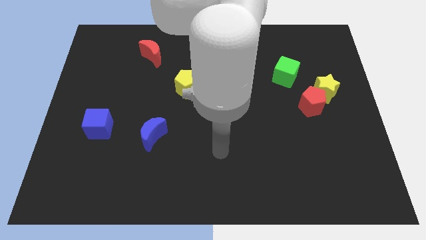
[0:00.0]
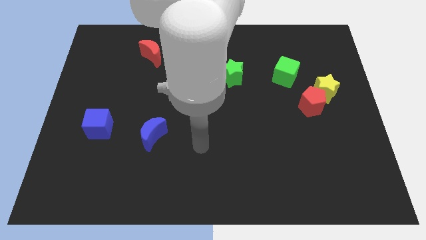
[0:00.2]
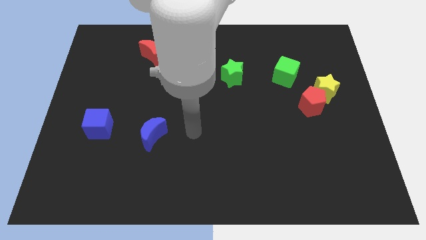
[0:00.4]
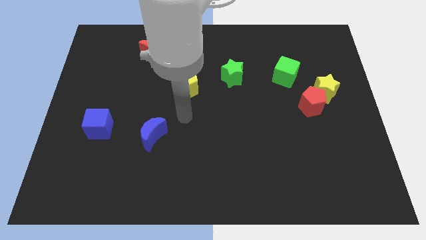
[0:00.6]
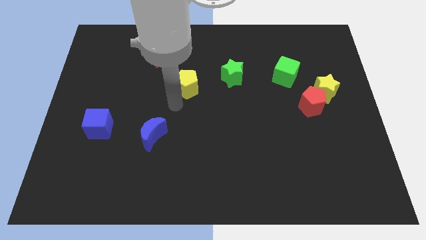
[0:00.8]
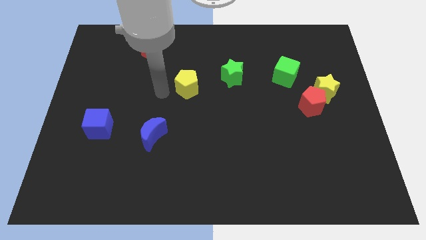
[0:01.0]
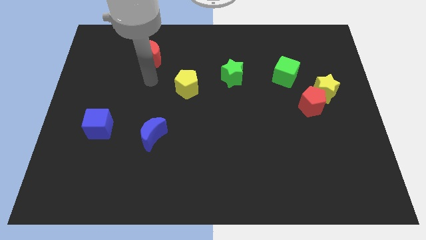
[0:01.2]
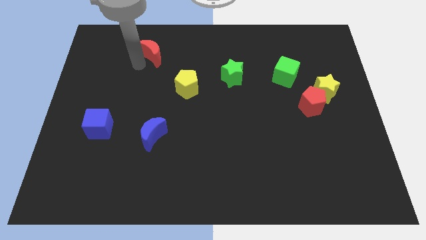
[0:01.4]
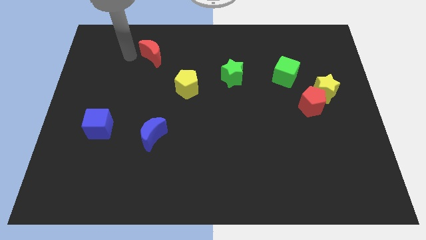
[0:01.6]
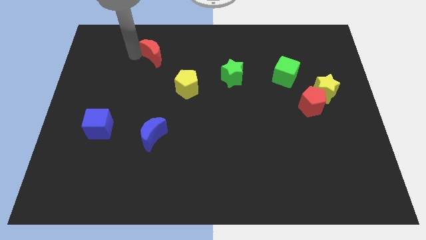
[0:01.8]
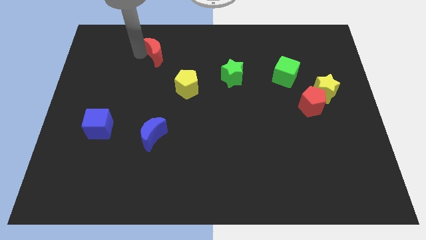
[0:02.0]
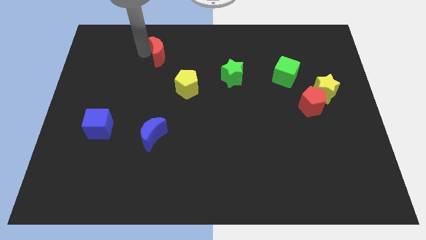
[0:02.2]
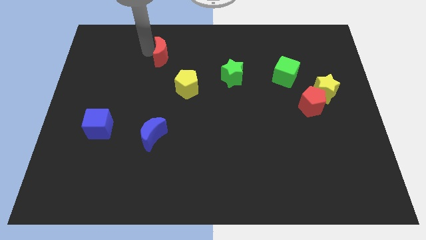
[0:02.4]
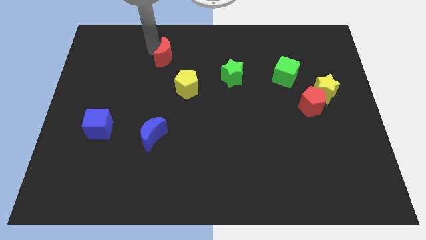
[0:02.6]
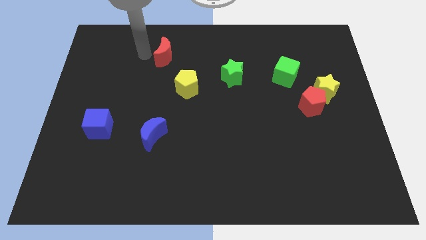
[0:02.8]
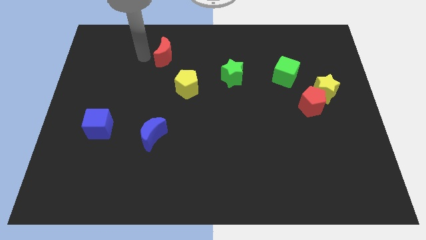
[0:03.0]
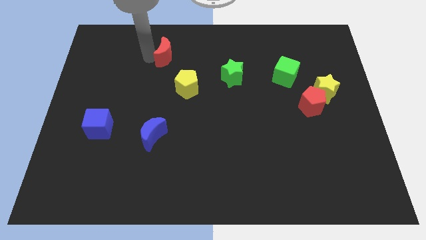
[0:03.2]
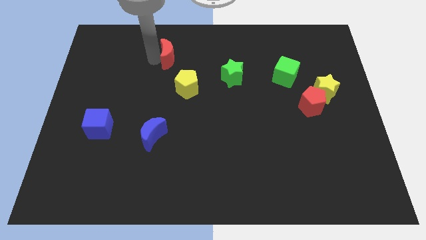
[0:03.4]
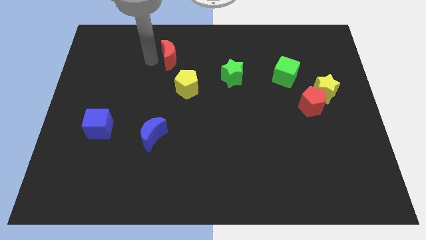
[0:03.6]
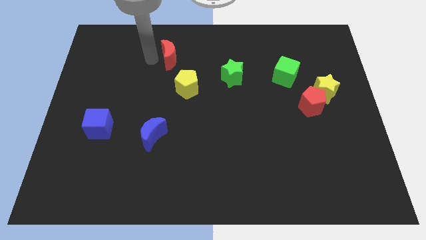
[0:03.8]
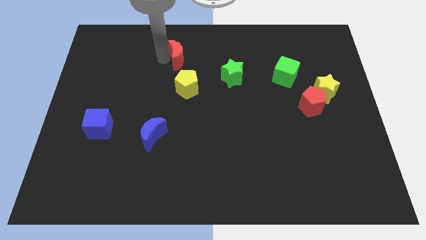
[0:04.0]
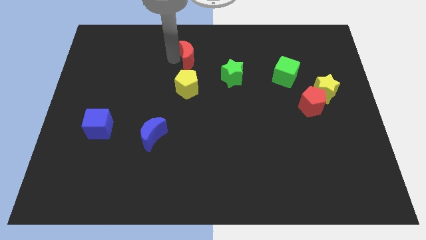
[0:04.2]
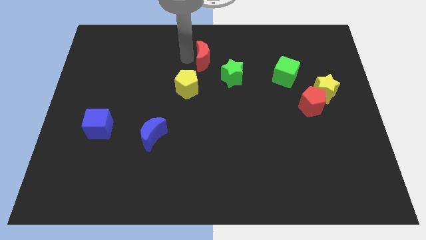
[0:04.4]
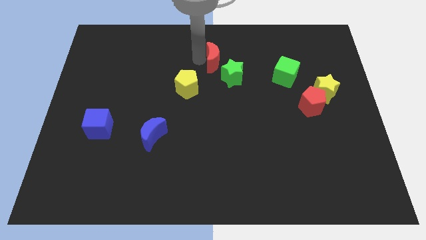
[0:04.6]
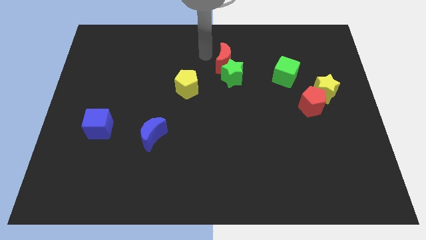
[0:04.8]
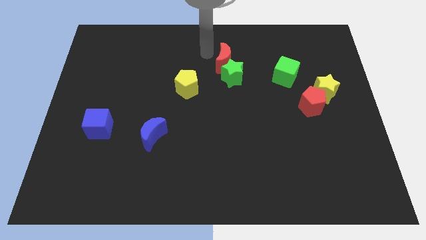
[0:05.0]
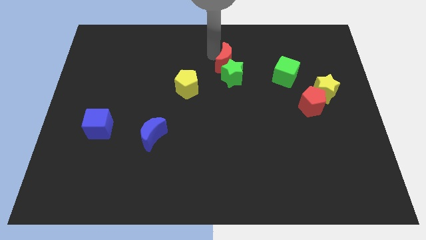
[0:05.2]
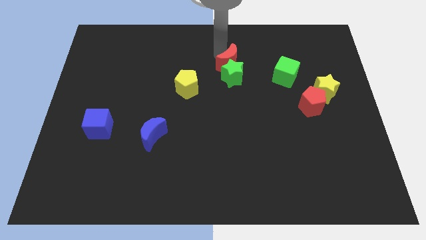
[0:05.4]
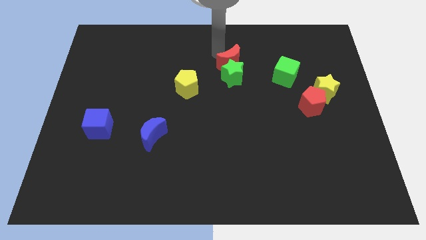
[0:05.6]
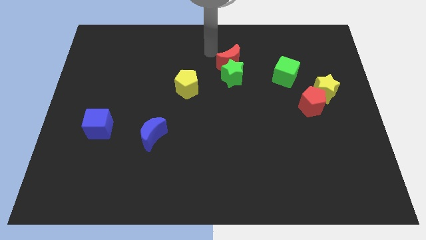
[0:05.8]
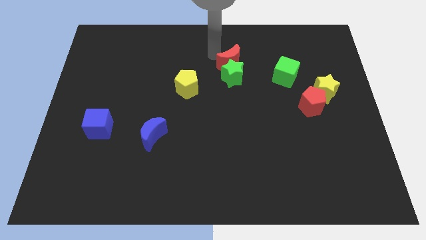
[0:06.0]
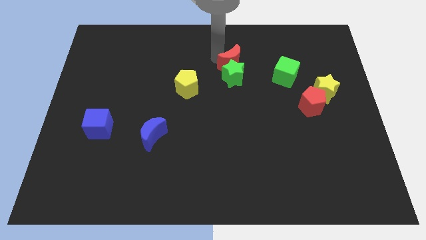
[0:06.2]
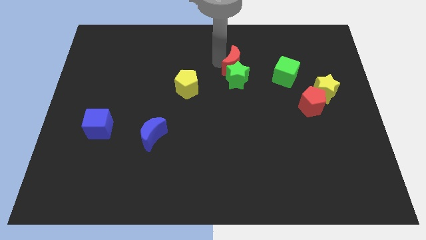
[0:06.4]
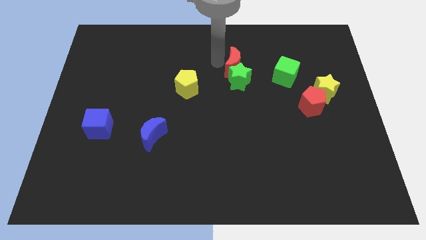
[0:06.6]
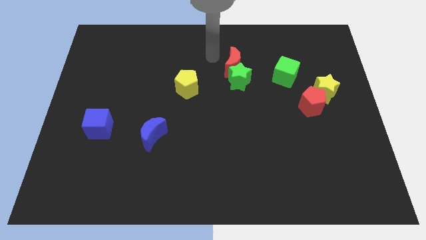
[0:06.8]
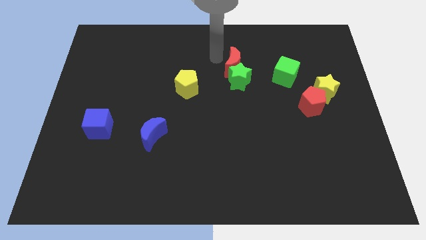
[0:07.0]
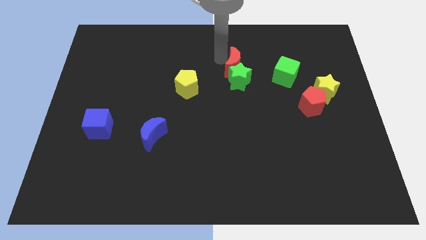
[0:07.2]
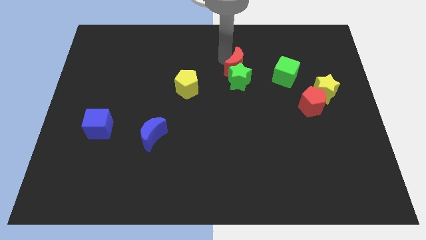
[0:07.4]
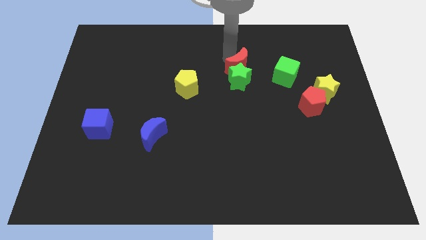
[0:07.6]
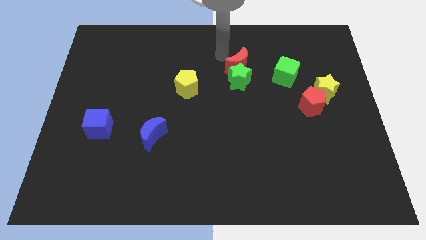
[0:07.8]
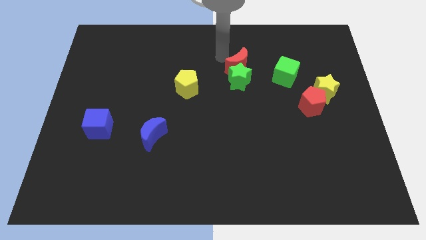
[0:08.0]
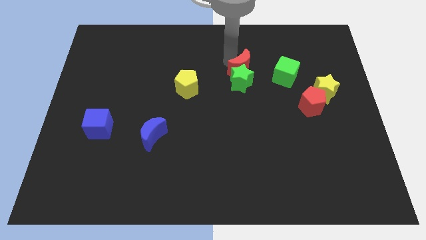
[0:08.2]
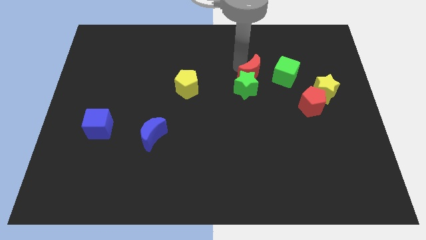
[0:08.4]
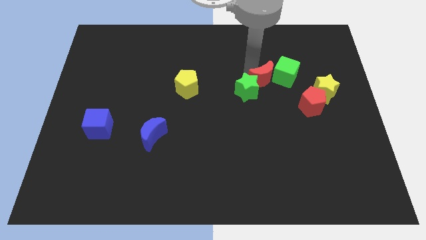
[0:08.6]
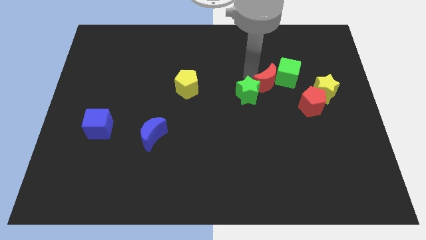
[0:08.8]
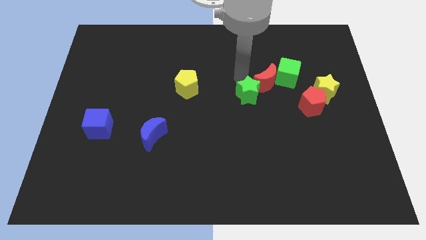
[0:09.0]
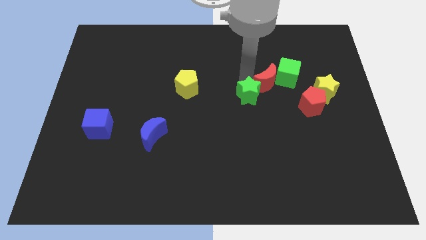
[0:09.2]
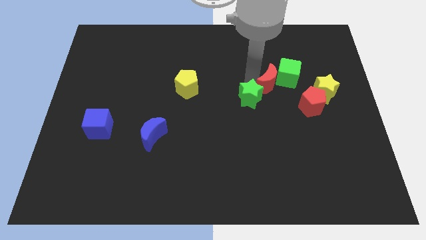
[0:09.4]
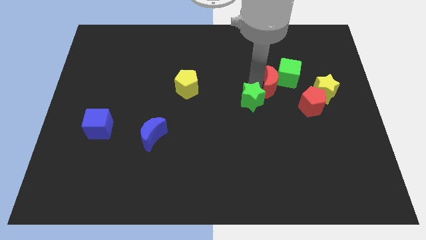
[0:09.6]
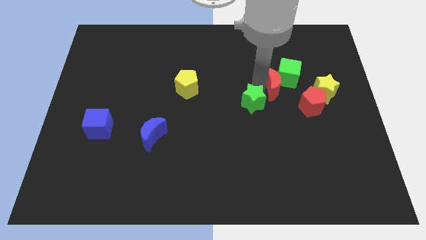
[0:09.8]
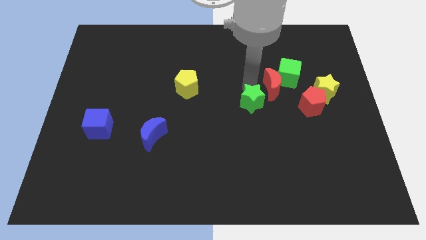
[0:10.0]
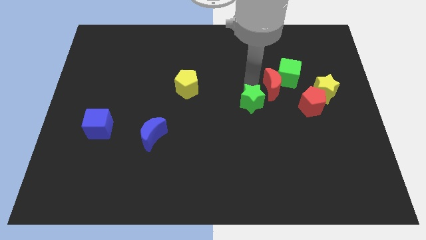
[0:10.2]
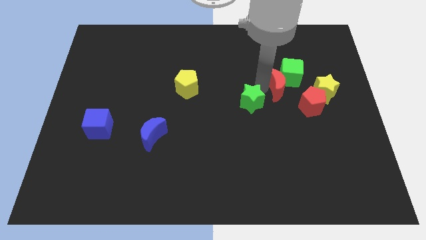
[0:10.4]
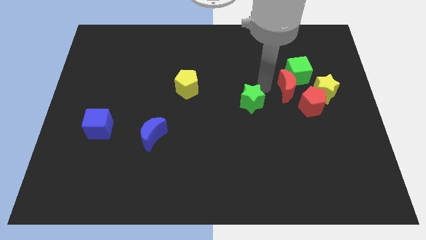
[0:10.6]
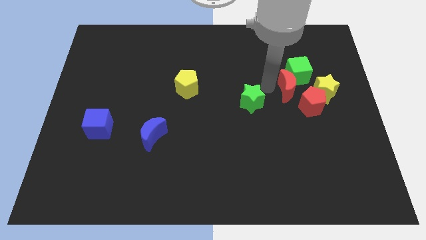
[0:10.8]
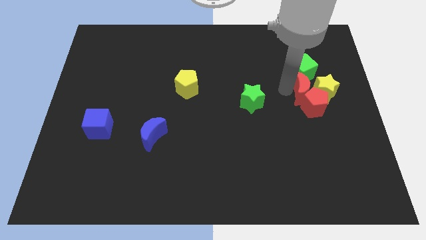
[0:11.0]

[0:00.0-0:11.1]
push the red moon close to the yellow star
